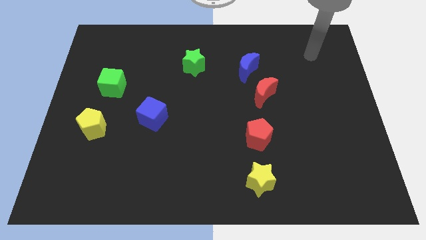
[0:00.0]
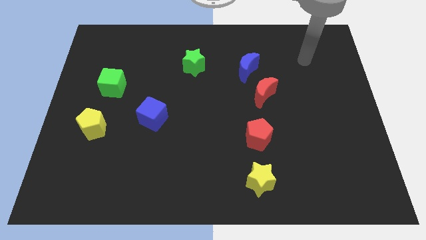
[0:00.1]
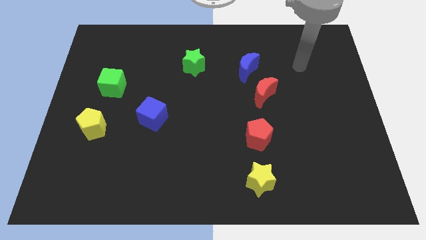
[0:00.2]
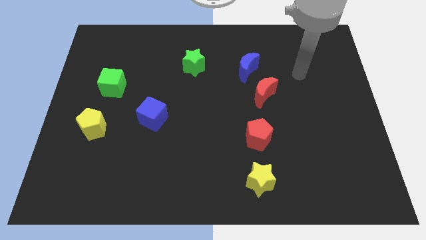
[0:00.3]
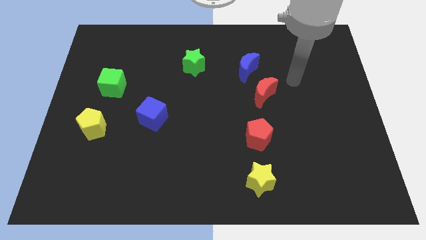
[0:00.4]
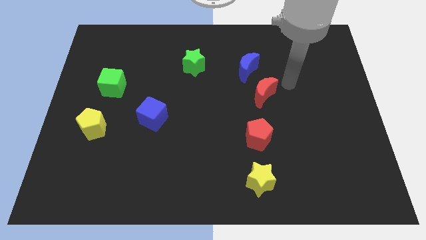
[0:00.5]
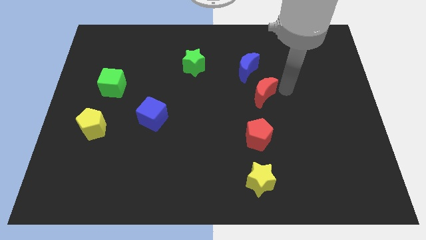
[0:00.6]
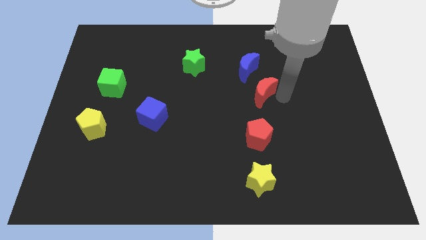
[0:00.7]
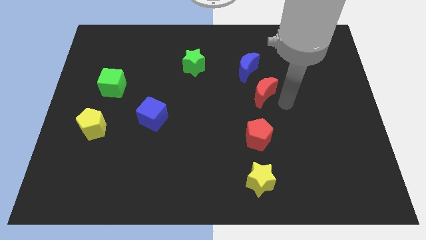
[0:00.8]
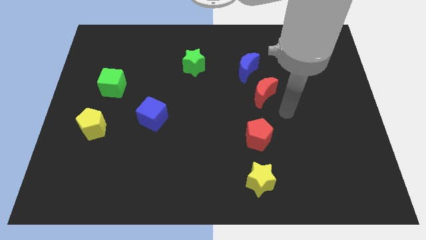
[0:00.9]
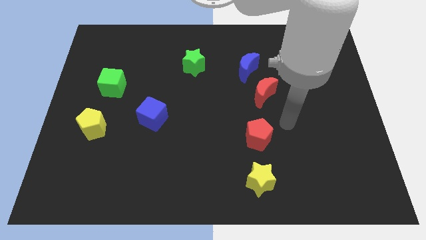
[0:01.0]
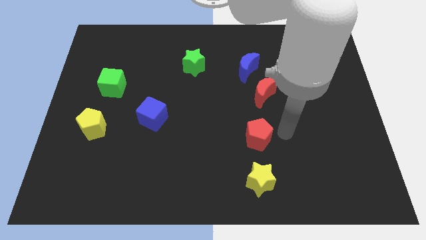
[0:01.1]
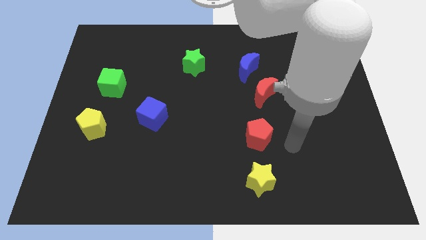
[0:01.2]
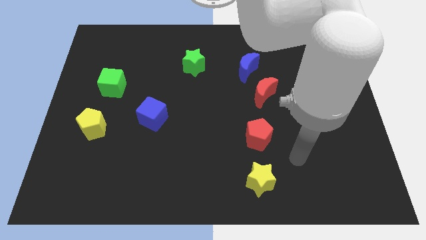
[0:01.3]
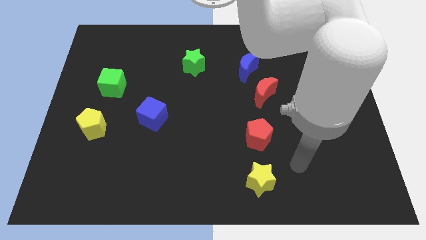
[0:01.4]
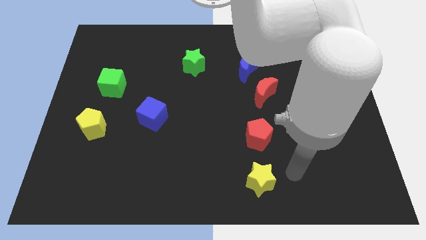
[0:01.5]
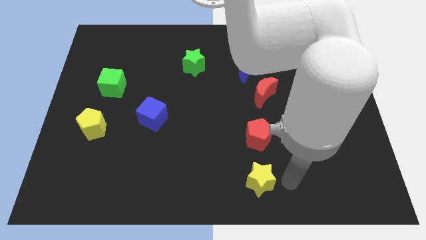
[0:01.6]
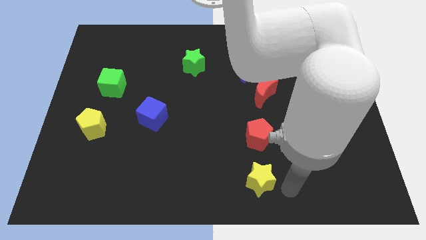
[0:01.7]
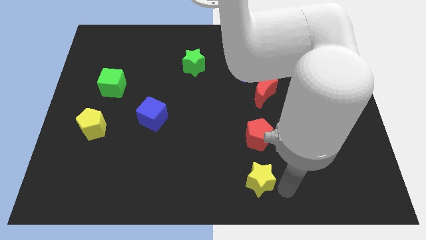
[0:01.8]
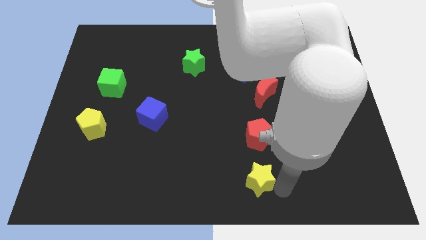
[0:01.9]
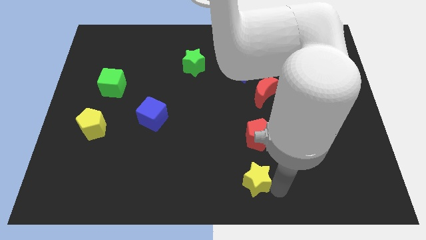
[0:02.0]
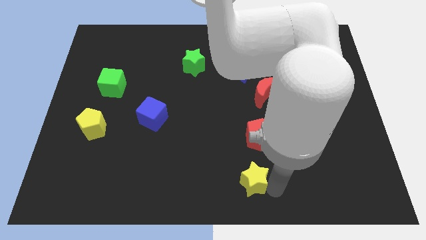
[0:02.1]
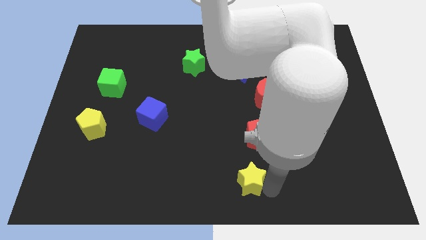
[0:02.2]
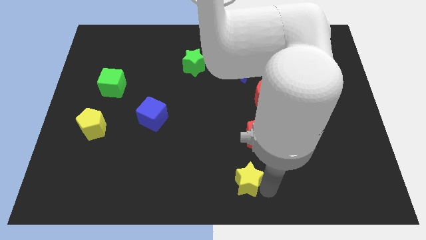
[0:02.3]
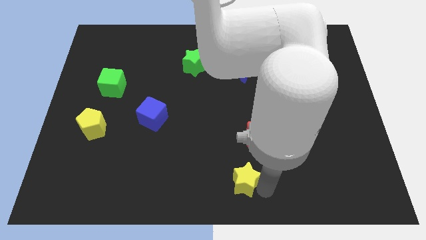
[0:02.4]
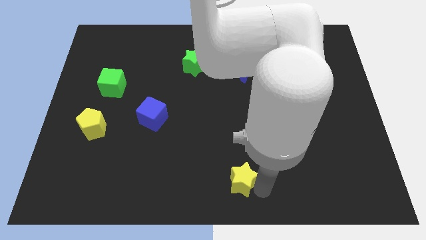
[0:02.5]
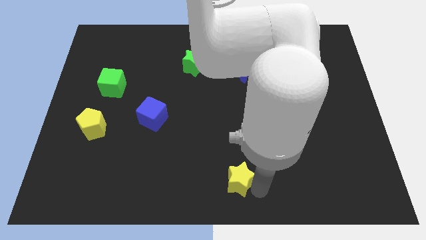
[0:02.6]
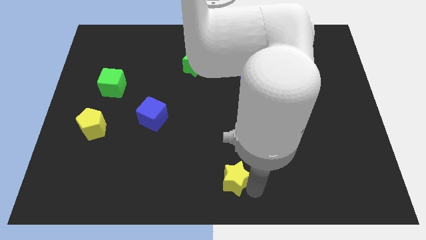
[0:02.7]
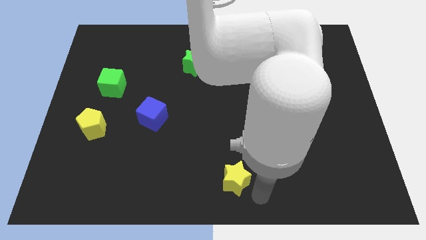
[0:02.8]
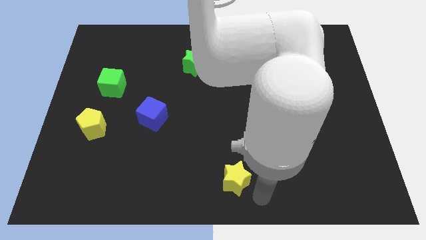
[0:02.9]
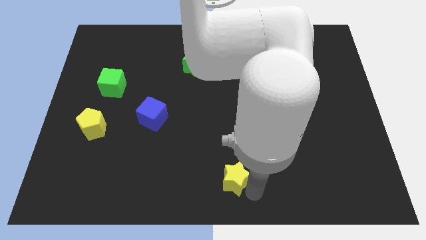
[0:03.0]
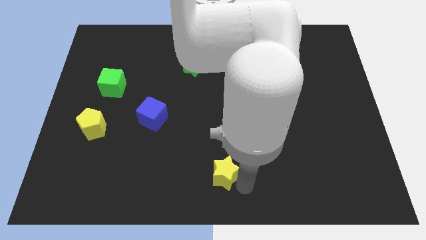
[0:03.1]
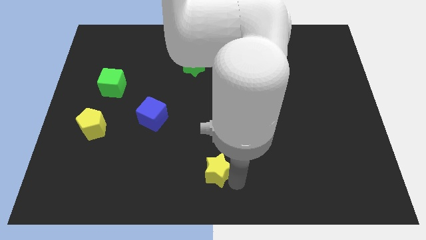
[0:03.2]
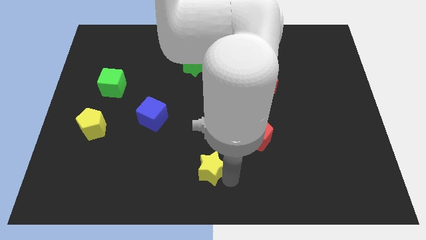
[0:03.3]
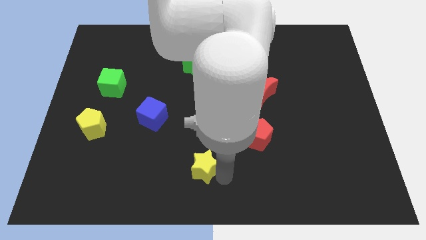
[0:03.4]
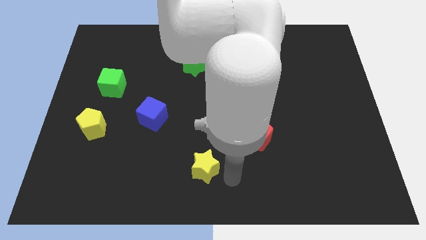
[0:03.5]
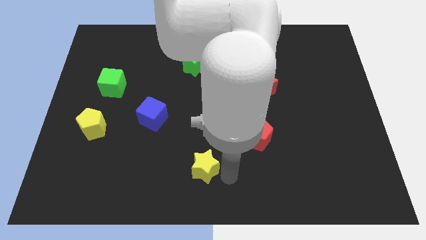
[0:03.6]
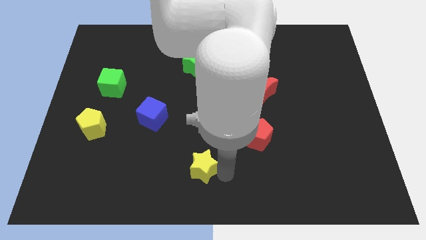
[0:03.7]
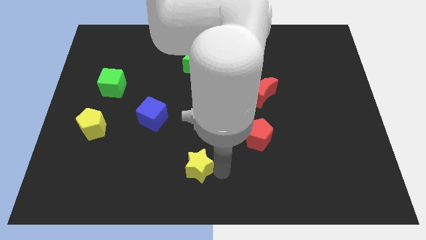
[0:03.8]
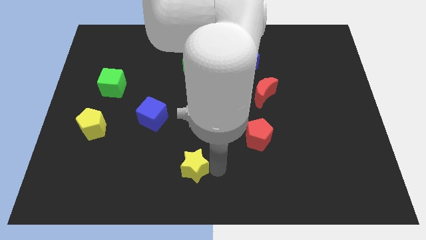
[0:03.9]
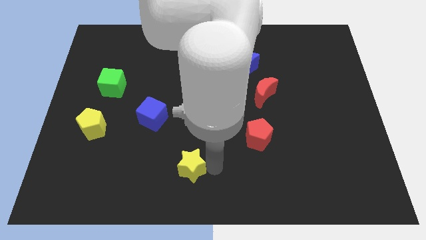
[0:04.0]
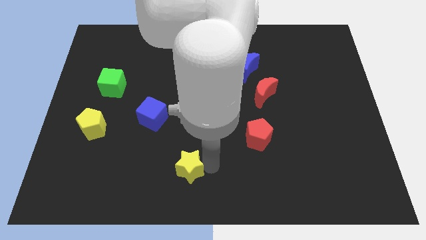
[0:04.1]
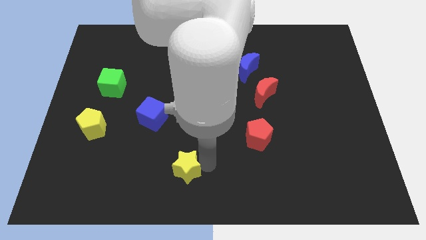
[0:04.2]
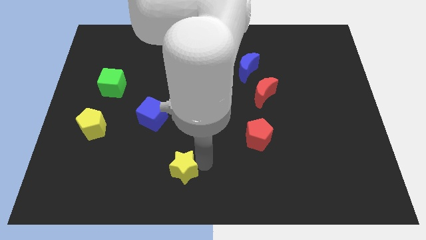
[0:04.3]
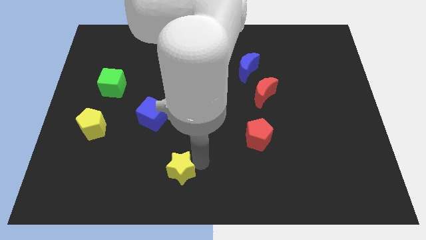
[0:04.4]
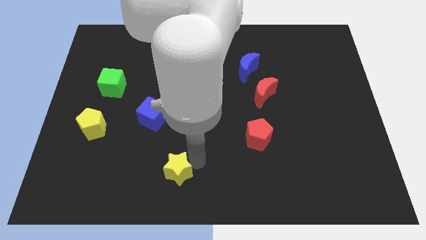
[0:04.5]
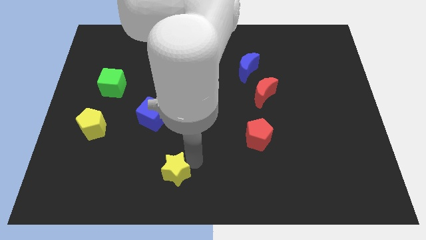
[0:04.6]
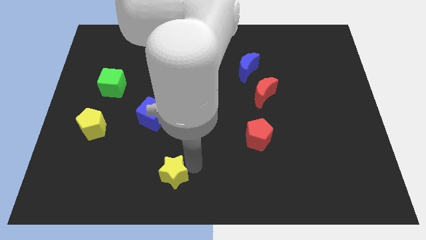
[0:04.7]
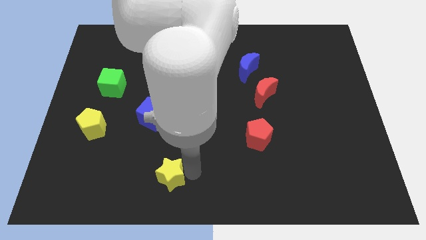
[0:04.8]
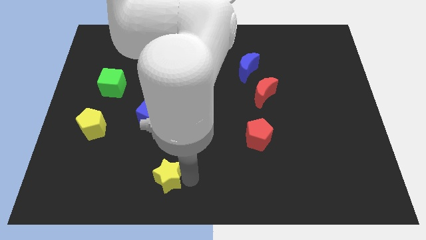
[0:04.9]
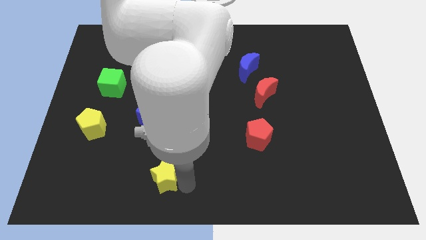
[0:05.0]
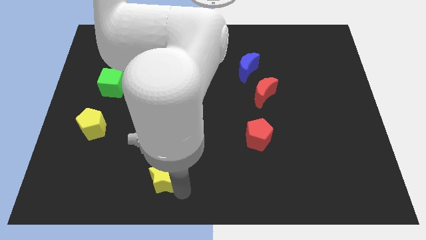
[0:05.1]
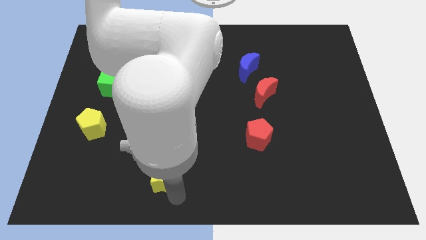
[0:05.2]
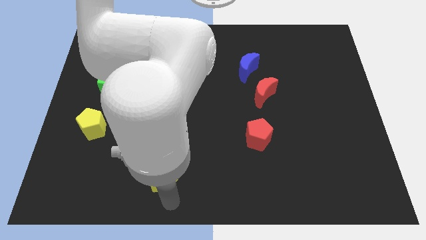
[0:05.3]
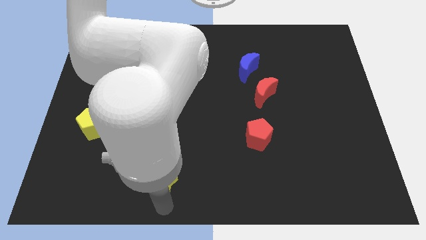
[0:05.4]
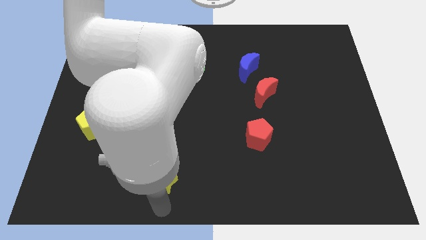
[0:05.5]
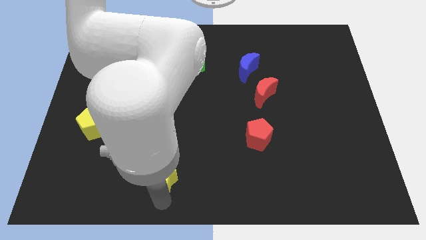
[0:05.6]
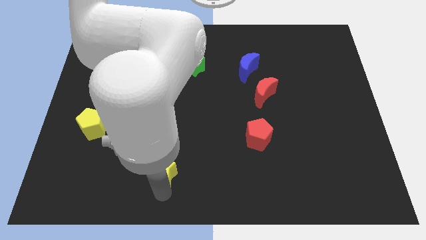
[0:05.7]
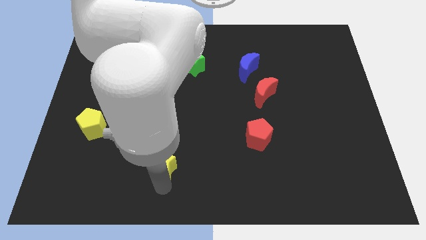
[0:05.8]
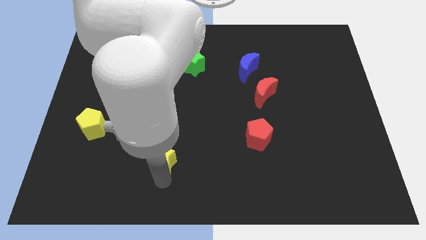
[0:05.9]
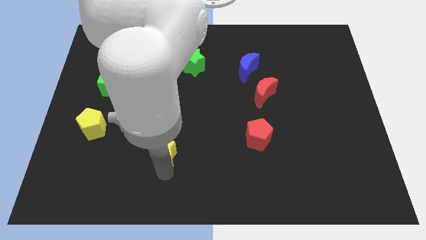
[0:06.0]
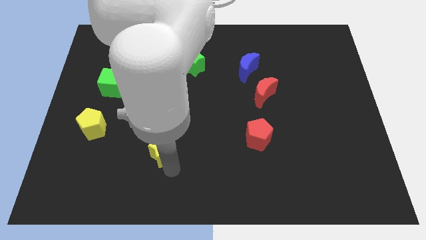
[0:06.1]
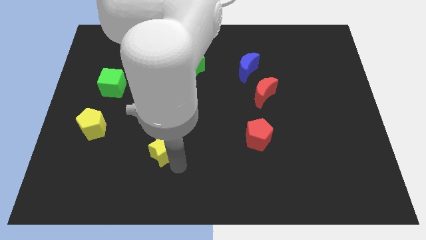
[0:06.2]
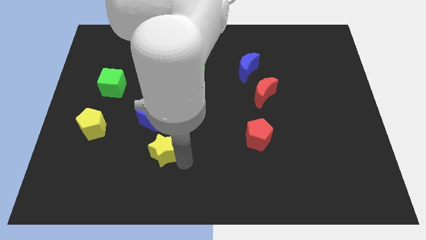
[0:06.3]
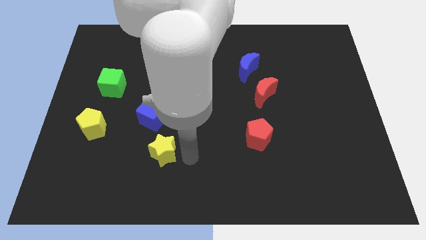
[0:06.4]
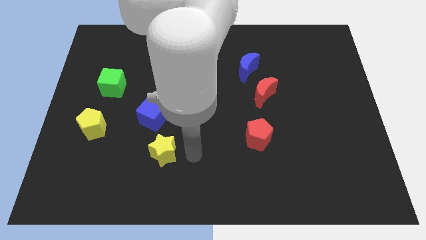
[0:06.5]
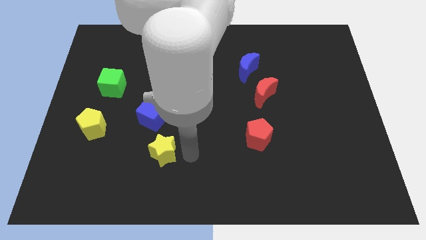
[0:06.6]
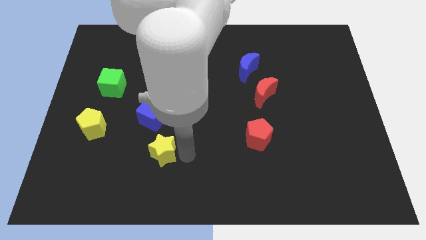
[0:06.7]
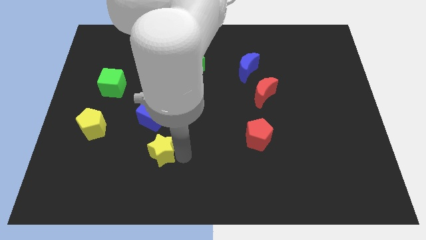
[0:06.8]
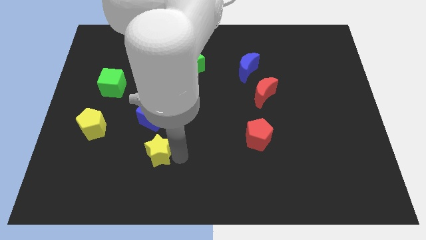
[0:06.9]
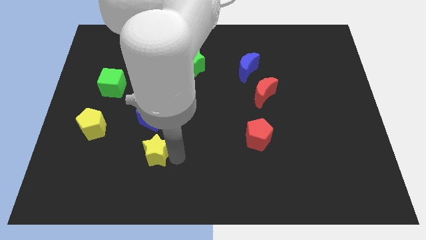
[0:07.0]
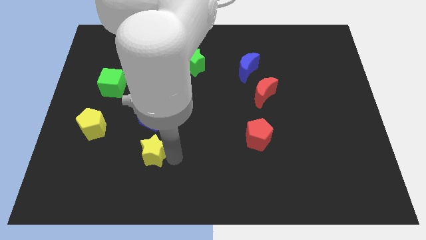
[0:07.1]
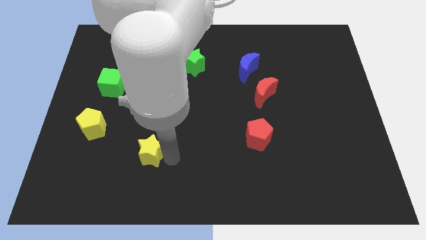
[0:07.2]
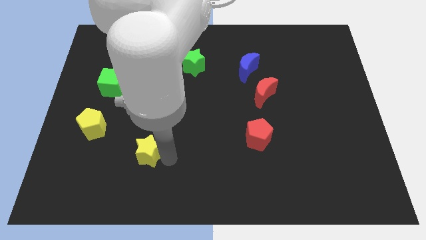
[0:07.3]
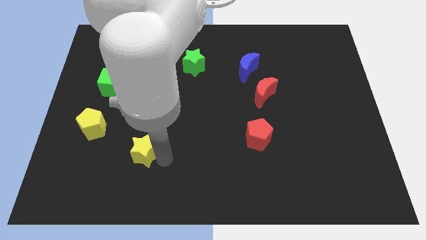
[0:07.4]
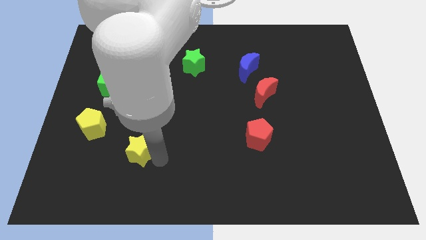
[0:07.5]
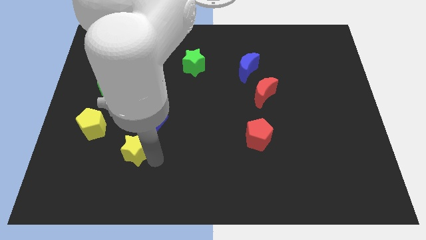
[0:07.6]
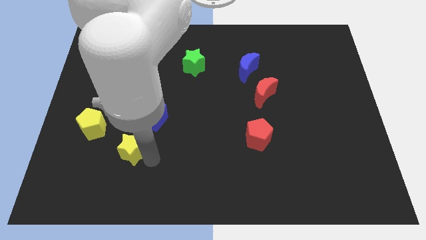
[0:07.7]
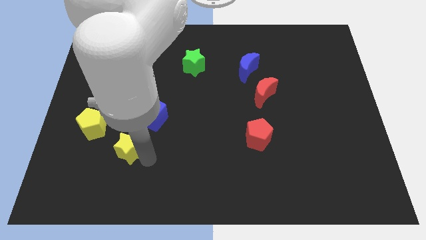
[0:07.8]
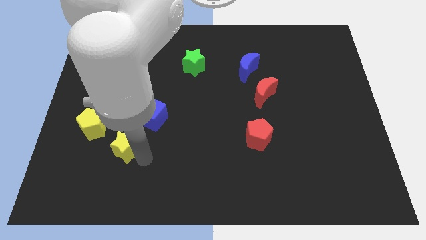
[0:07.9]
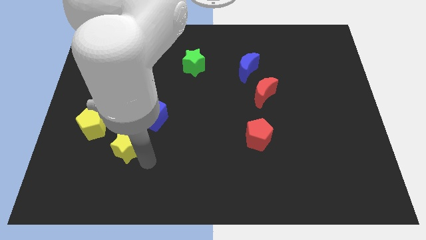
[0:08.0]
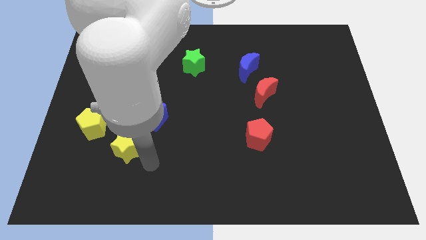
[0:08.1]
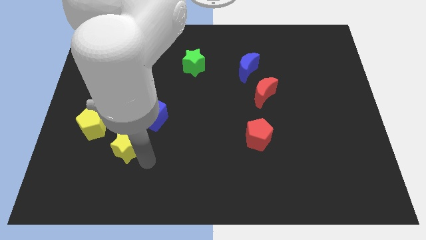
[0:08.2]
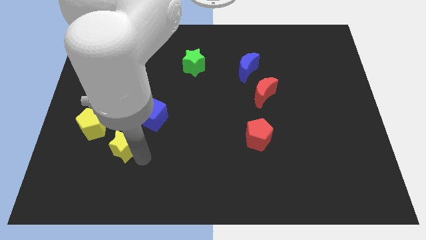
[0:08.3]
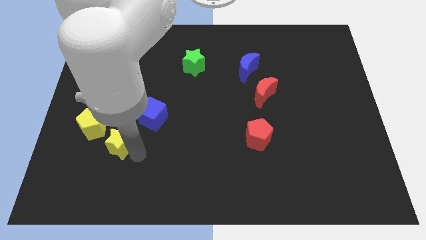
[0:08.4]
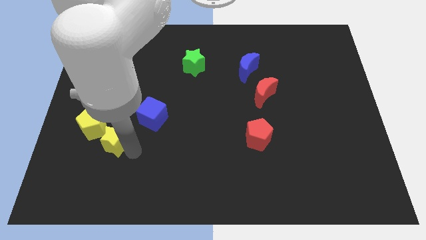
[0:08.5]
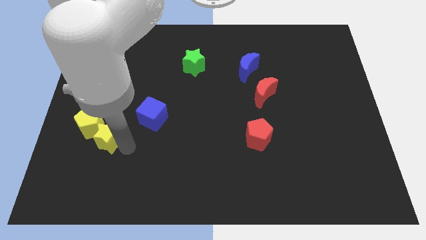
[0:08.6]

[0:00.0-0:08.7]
push the yellow star to the yellow pentagon
